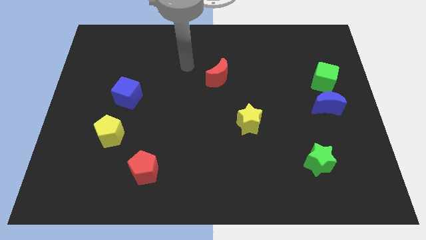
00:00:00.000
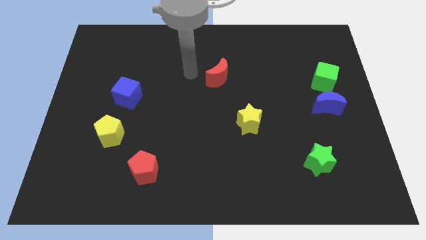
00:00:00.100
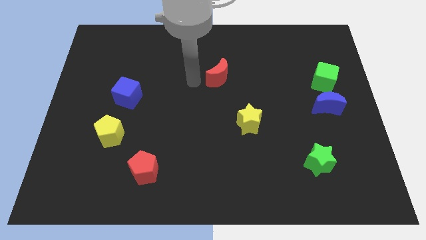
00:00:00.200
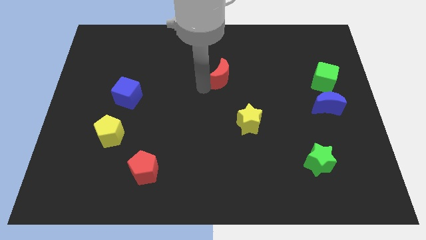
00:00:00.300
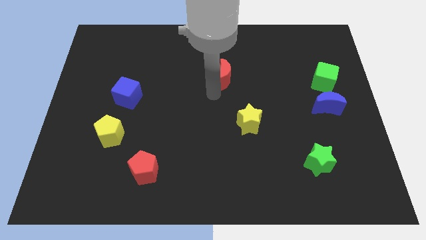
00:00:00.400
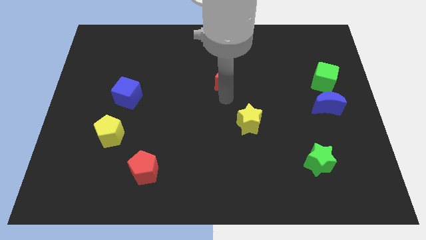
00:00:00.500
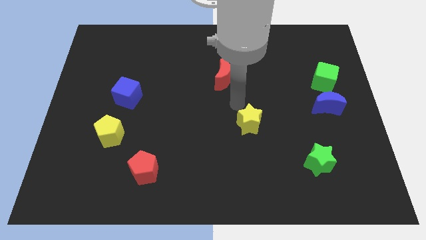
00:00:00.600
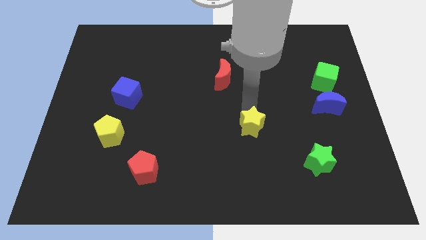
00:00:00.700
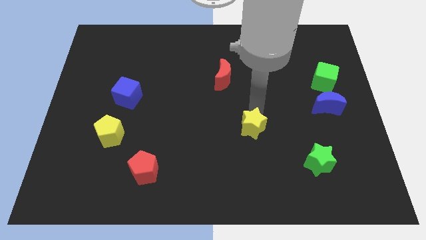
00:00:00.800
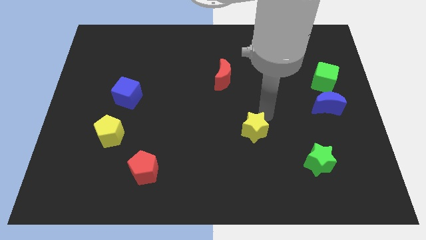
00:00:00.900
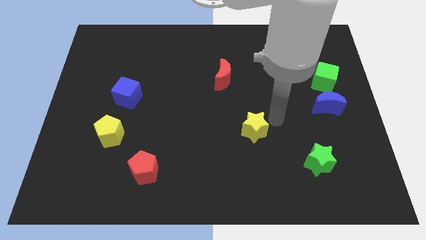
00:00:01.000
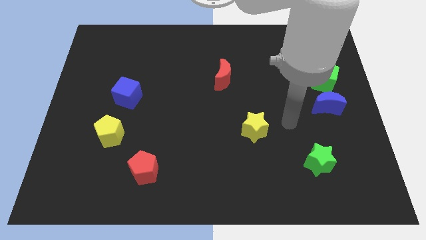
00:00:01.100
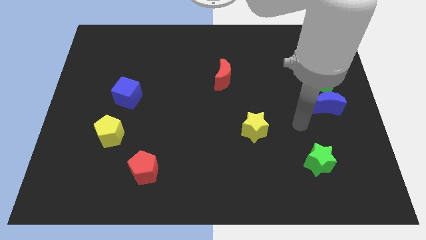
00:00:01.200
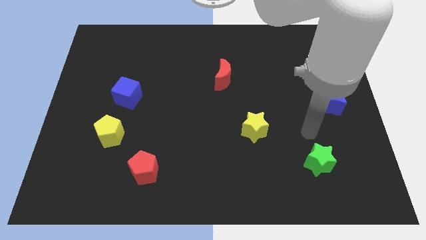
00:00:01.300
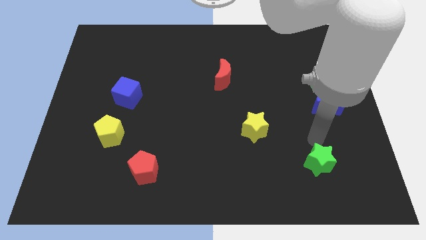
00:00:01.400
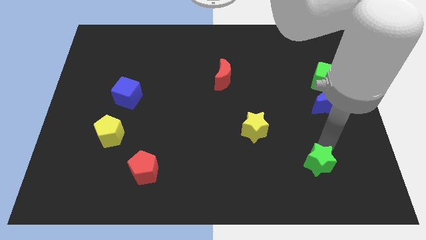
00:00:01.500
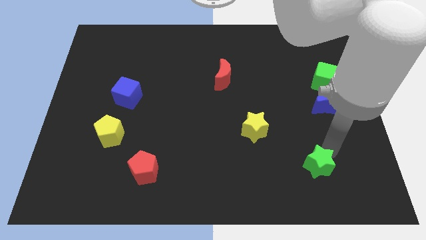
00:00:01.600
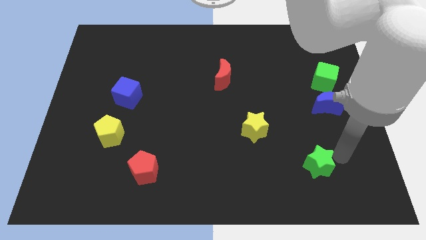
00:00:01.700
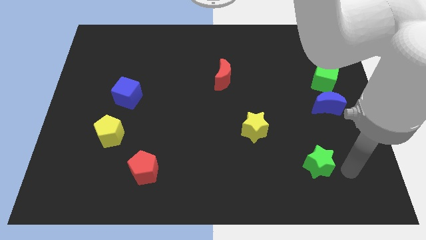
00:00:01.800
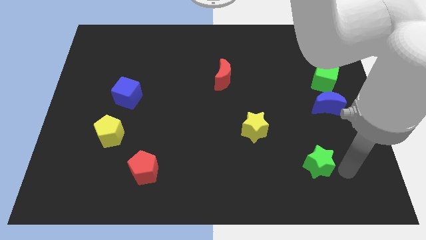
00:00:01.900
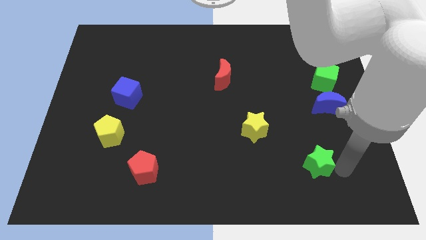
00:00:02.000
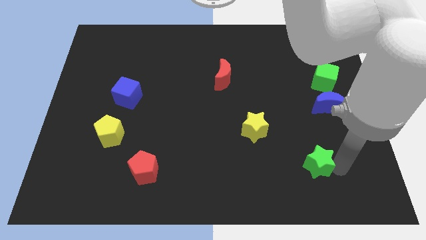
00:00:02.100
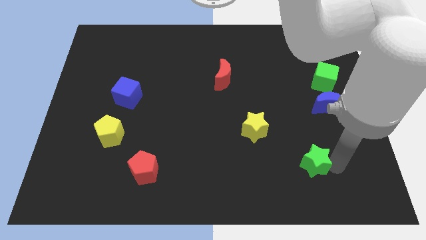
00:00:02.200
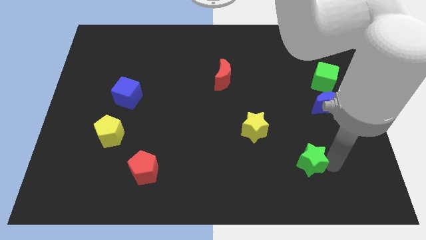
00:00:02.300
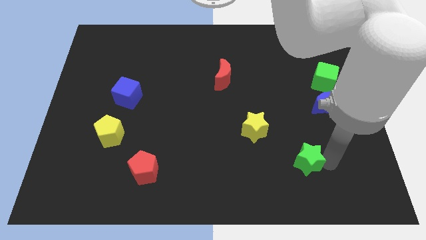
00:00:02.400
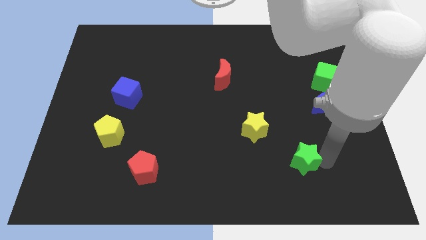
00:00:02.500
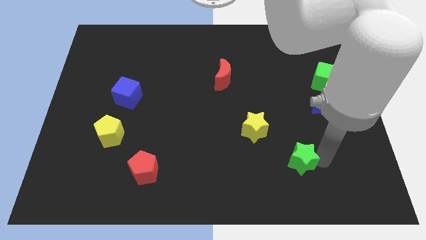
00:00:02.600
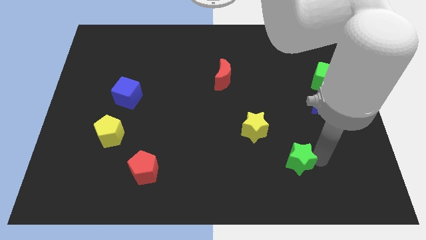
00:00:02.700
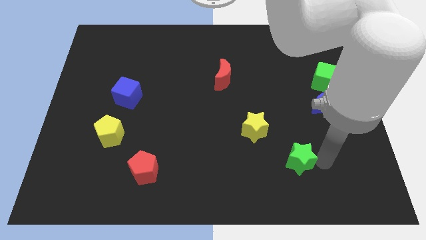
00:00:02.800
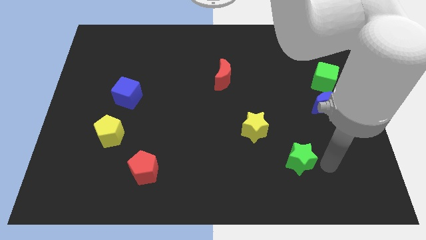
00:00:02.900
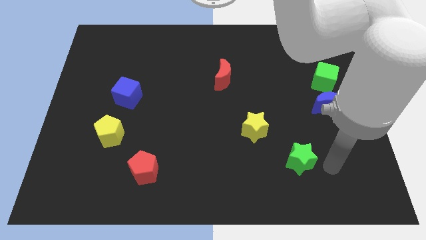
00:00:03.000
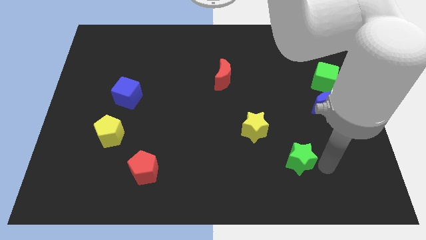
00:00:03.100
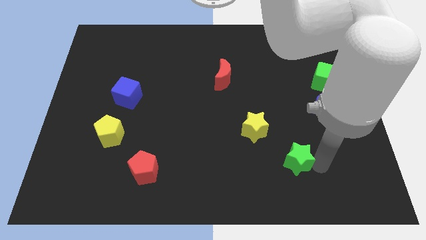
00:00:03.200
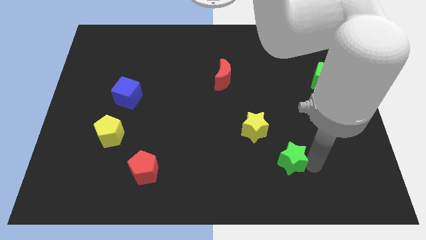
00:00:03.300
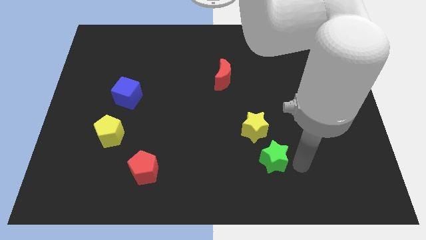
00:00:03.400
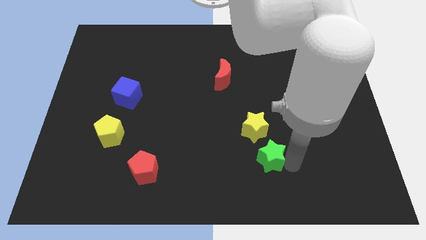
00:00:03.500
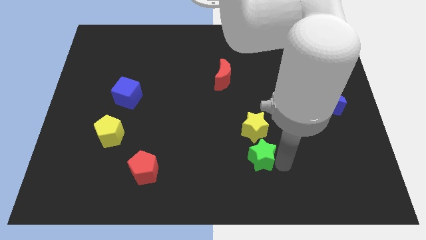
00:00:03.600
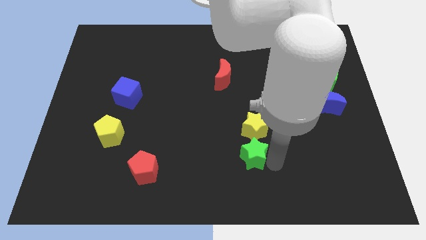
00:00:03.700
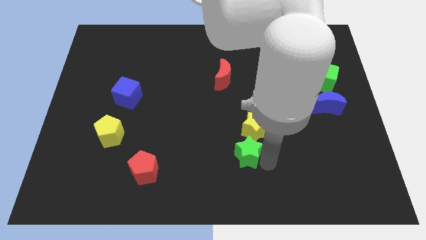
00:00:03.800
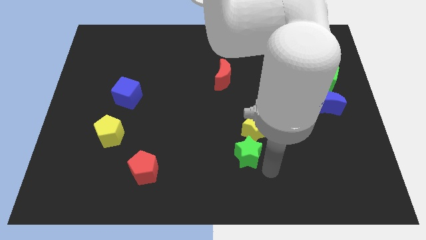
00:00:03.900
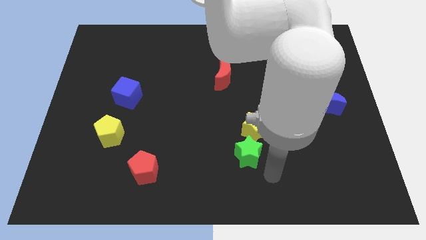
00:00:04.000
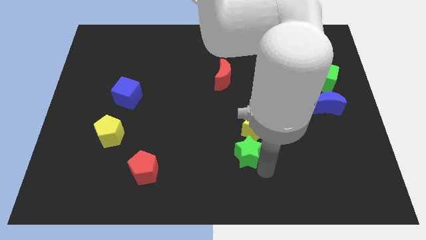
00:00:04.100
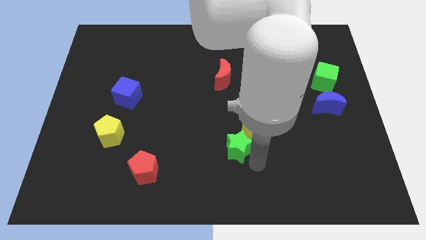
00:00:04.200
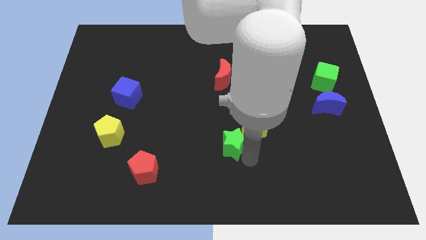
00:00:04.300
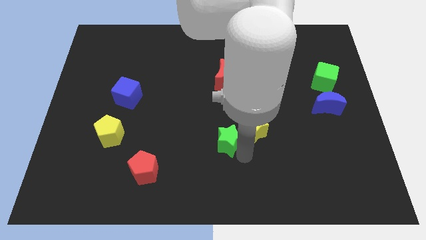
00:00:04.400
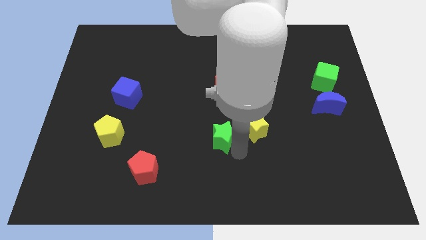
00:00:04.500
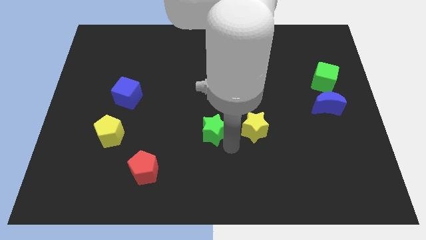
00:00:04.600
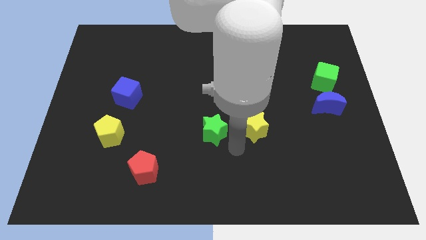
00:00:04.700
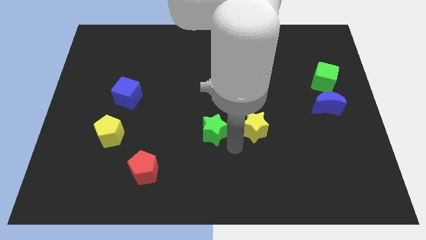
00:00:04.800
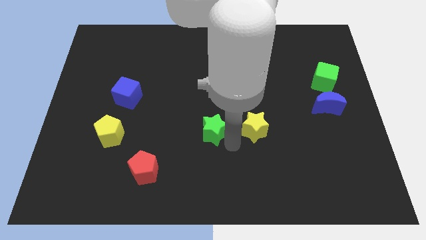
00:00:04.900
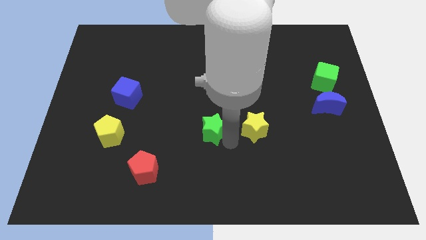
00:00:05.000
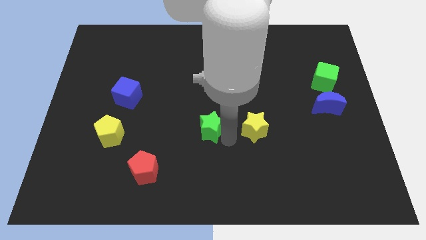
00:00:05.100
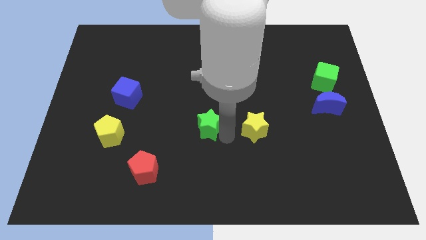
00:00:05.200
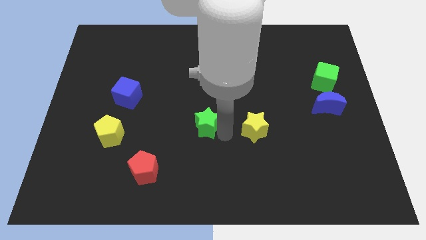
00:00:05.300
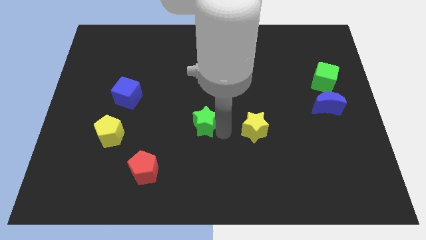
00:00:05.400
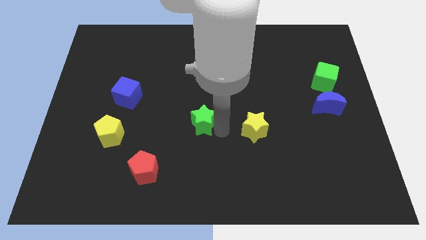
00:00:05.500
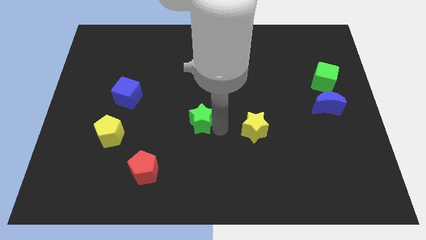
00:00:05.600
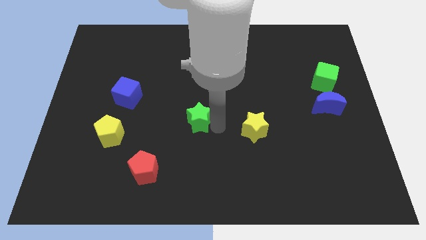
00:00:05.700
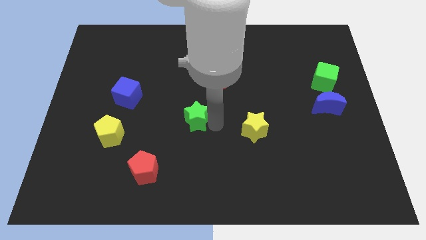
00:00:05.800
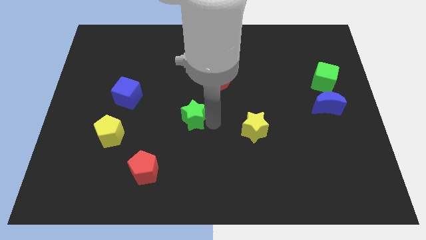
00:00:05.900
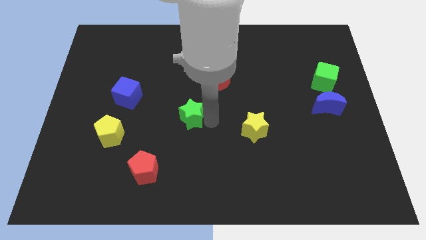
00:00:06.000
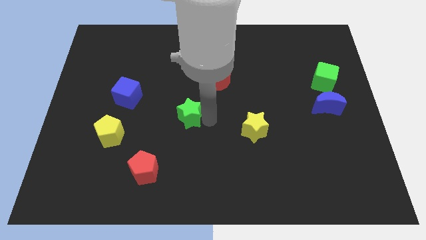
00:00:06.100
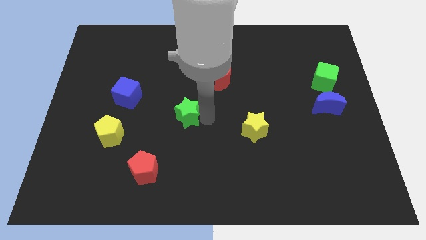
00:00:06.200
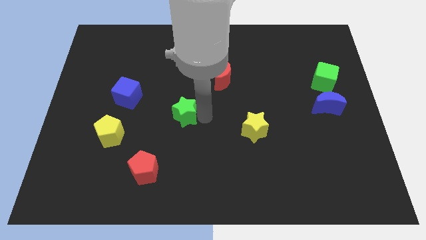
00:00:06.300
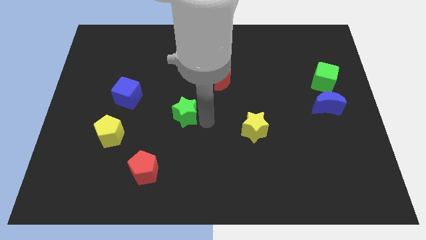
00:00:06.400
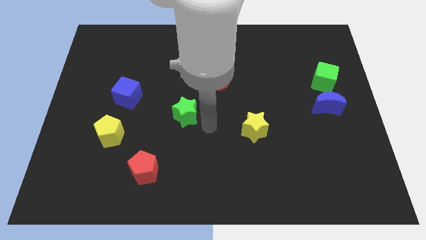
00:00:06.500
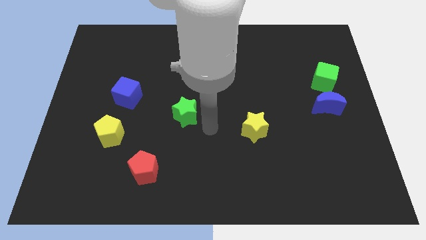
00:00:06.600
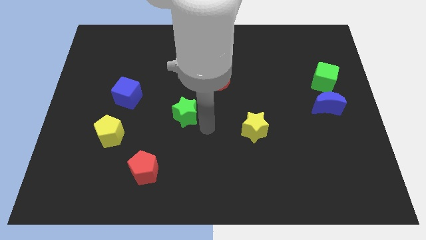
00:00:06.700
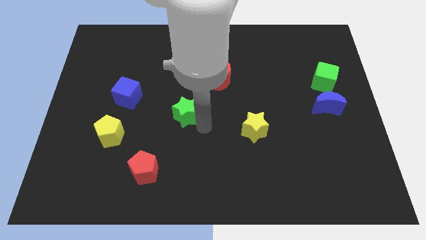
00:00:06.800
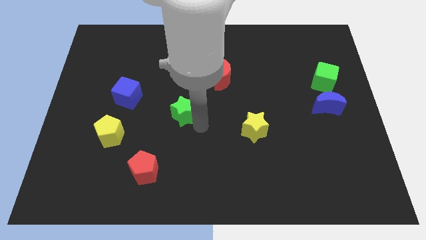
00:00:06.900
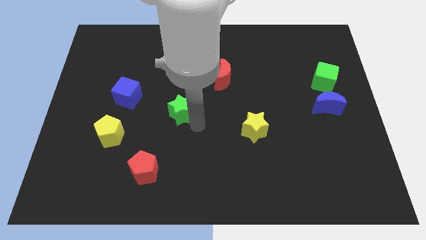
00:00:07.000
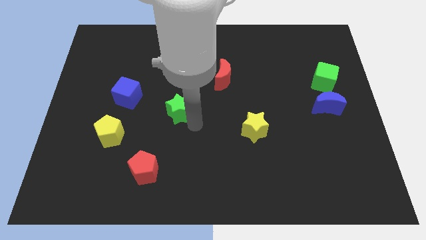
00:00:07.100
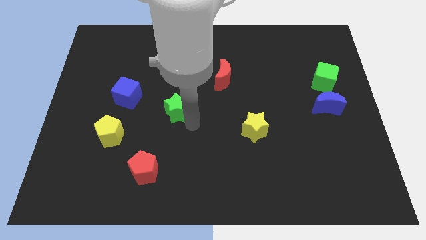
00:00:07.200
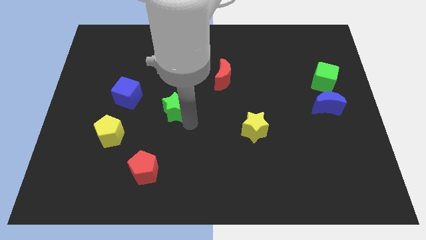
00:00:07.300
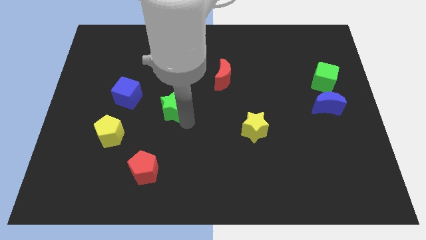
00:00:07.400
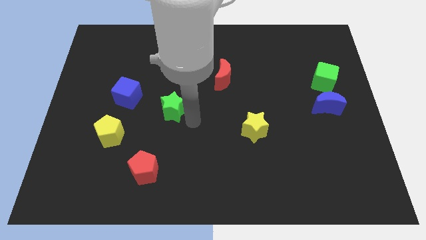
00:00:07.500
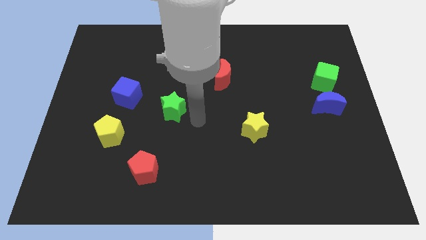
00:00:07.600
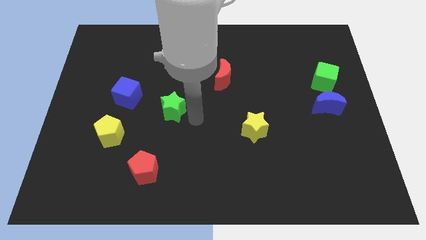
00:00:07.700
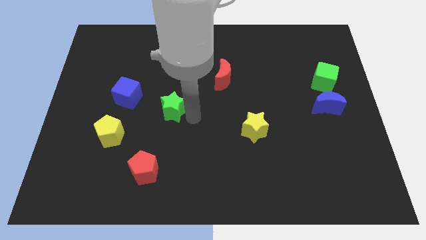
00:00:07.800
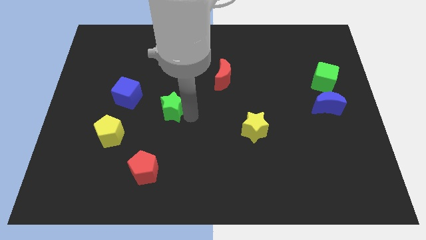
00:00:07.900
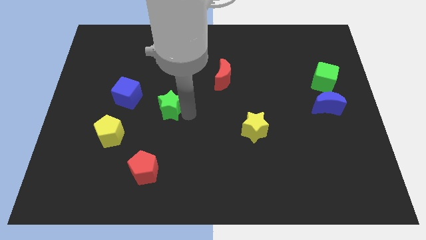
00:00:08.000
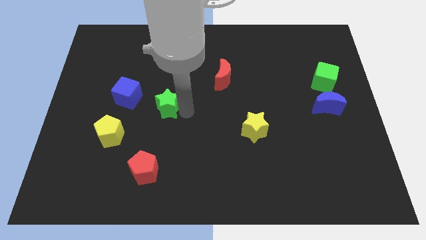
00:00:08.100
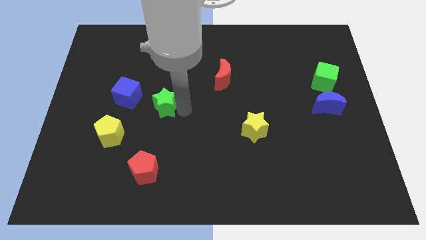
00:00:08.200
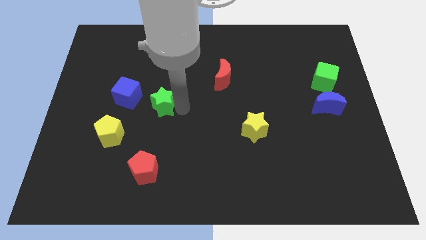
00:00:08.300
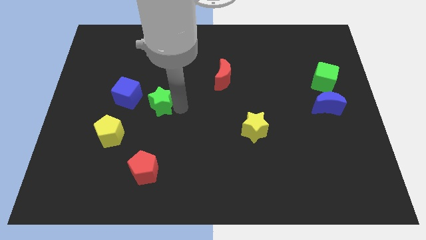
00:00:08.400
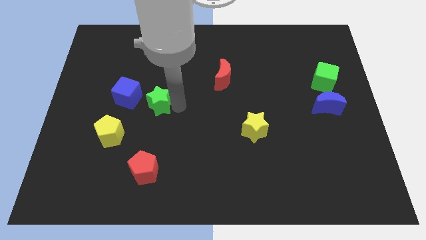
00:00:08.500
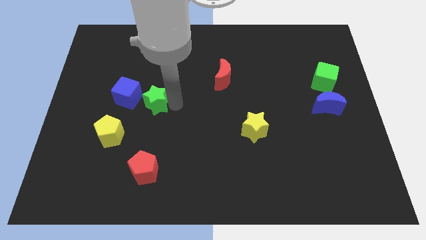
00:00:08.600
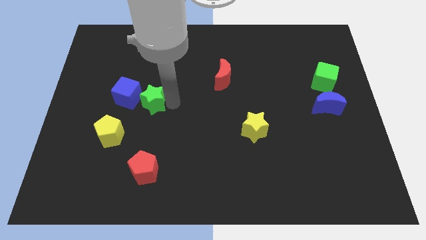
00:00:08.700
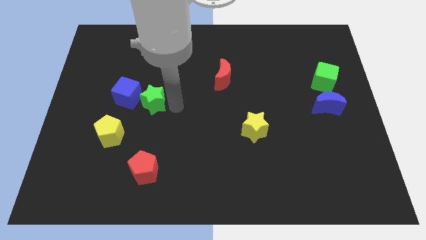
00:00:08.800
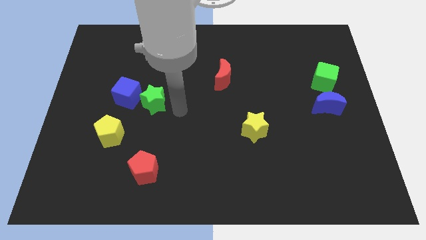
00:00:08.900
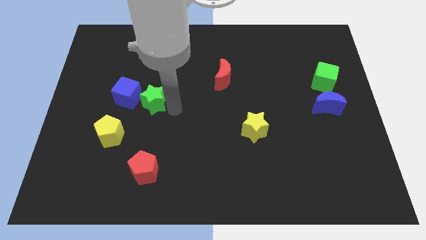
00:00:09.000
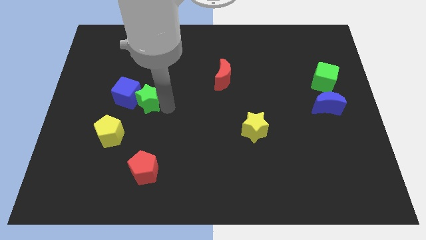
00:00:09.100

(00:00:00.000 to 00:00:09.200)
move the green star close to the blue cube
